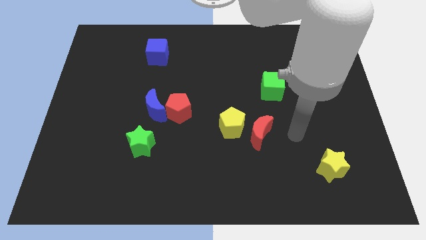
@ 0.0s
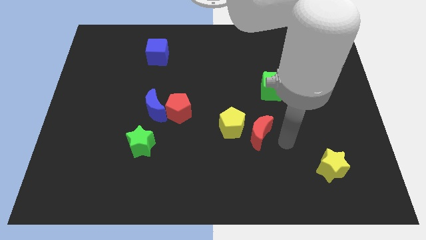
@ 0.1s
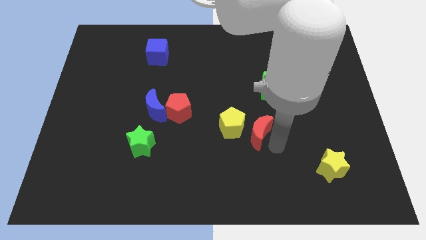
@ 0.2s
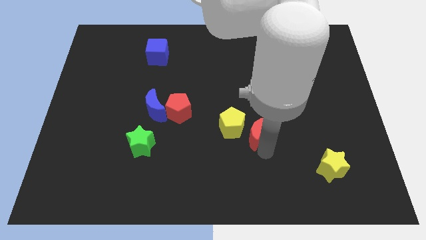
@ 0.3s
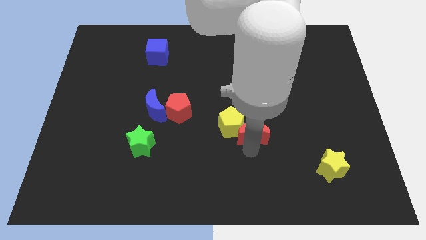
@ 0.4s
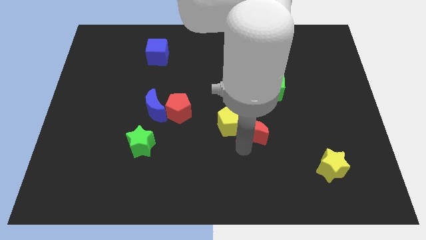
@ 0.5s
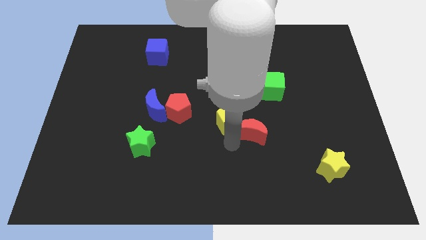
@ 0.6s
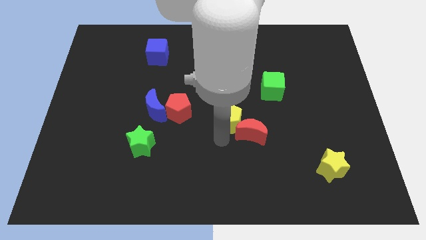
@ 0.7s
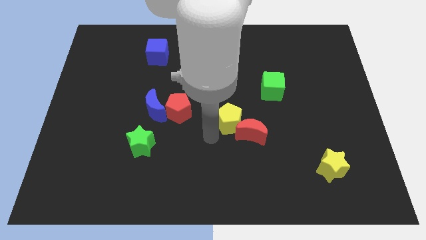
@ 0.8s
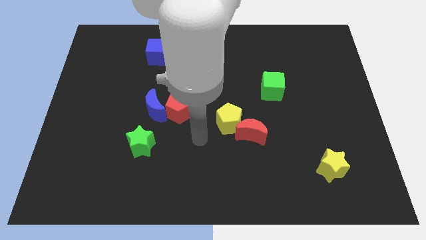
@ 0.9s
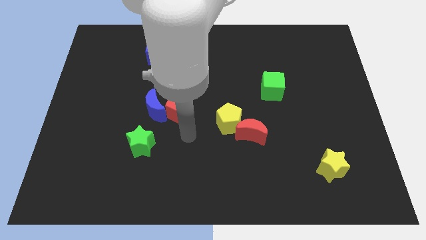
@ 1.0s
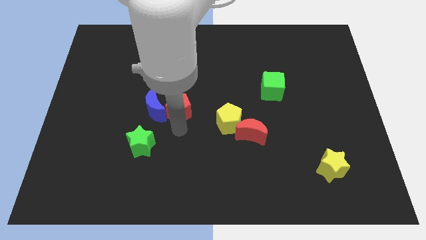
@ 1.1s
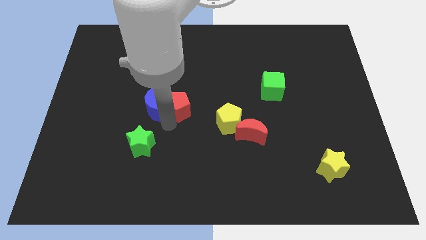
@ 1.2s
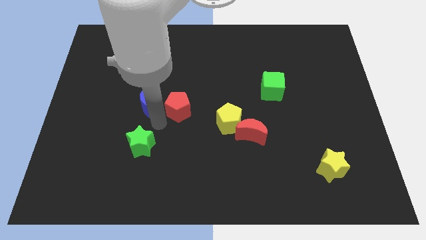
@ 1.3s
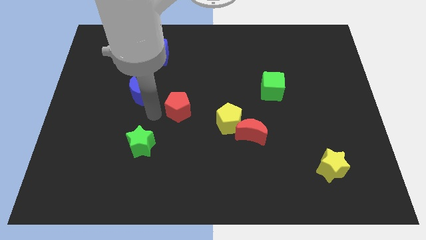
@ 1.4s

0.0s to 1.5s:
separate the red pentagon from the blue moon

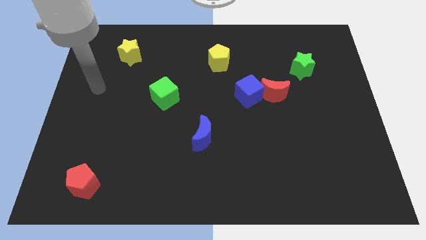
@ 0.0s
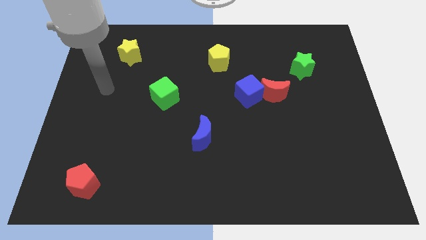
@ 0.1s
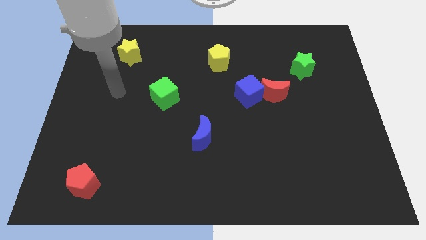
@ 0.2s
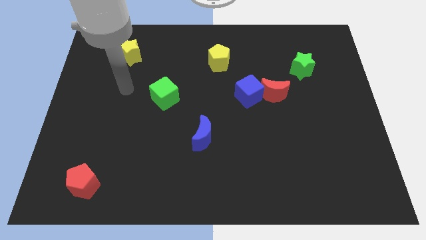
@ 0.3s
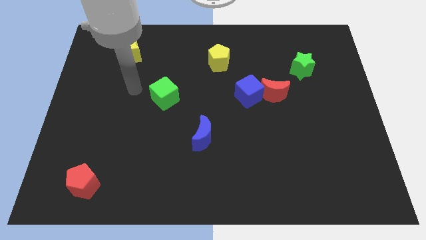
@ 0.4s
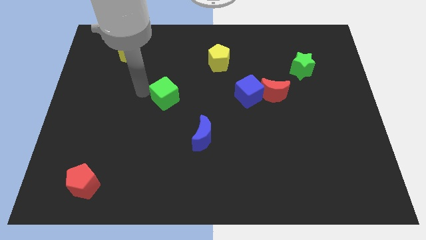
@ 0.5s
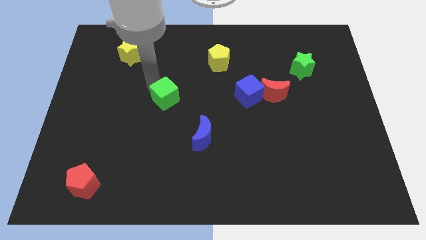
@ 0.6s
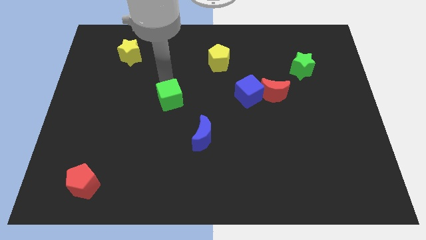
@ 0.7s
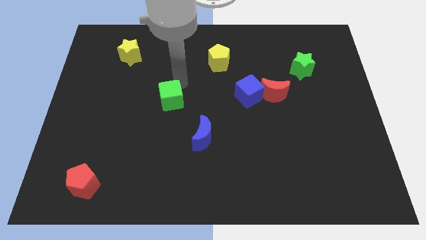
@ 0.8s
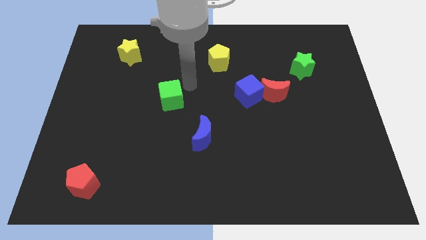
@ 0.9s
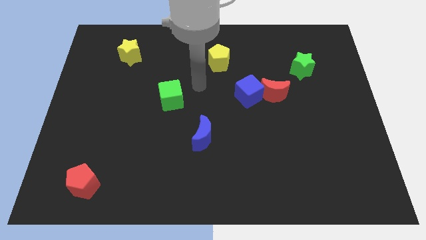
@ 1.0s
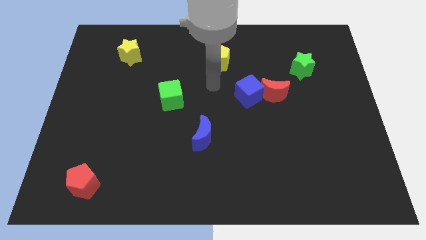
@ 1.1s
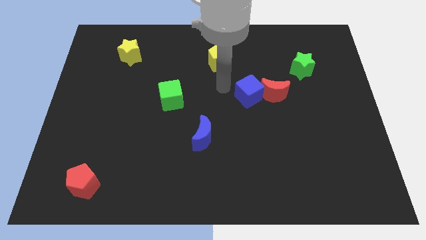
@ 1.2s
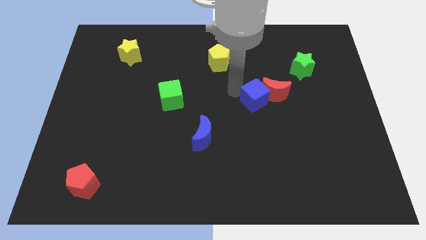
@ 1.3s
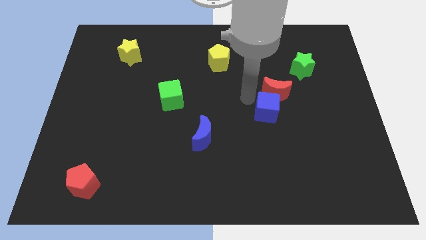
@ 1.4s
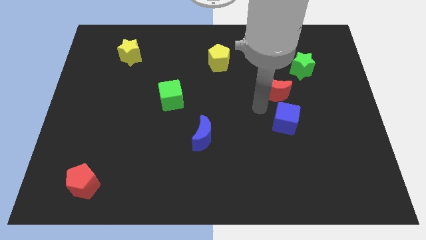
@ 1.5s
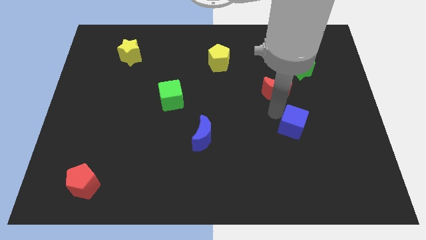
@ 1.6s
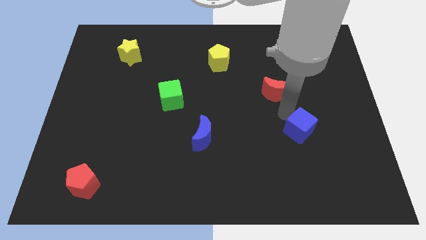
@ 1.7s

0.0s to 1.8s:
separate the red moon from the blue cube

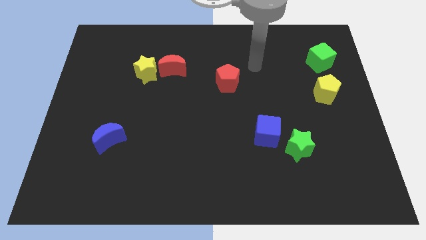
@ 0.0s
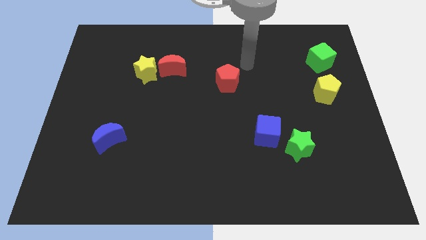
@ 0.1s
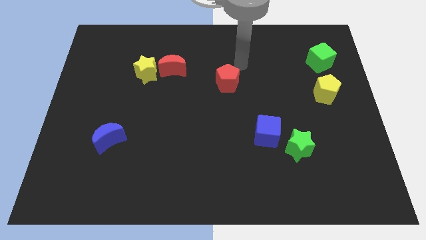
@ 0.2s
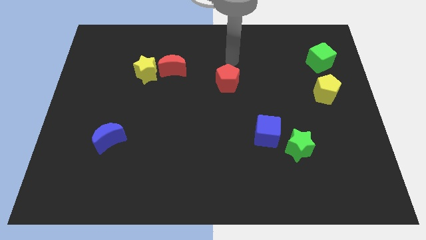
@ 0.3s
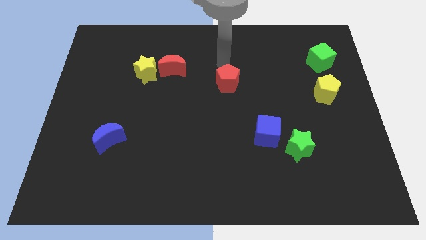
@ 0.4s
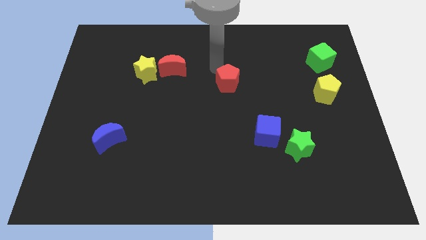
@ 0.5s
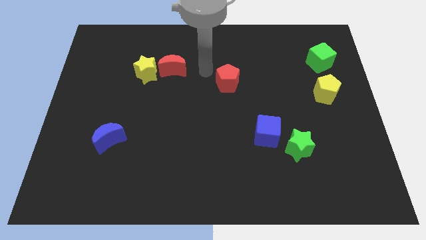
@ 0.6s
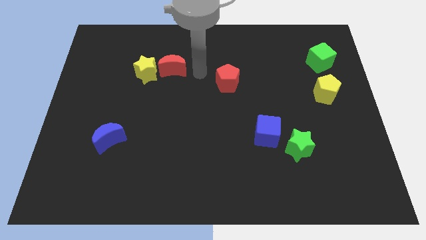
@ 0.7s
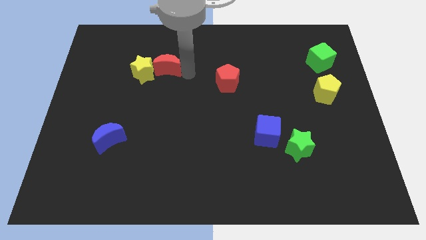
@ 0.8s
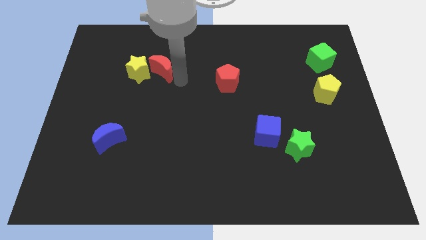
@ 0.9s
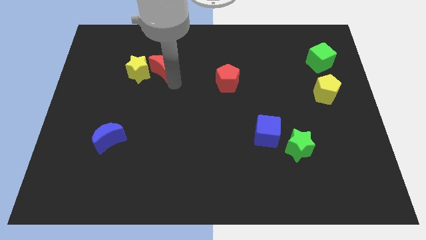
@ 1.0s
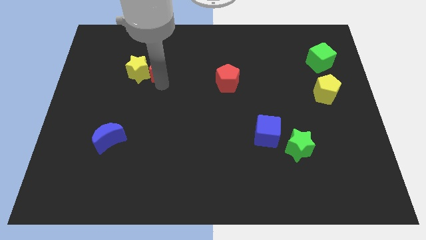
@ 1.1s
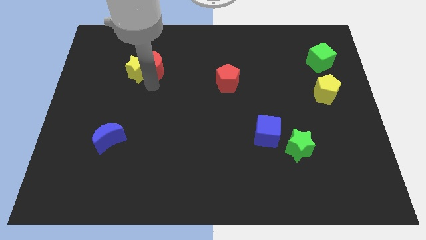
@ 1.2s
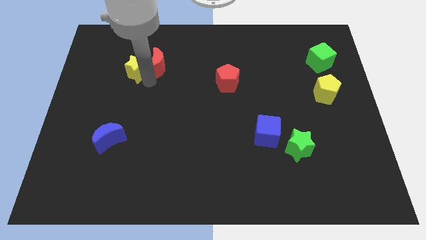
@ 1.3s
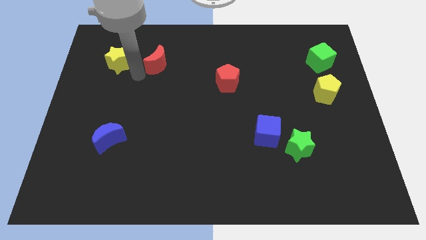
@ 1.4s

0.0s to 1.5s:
move the red moon away from the yellow star

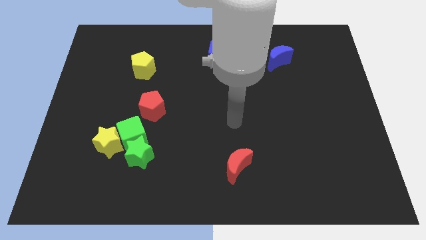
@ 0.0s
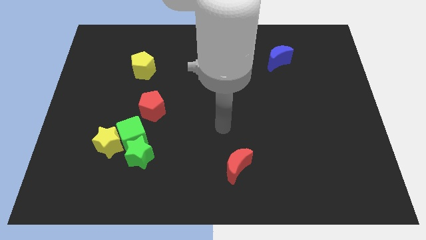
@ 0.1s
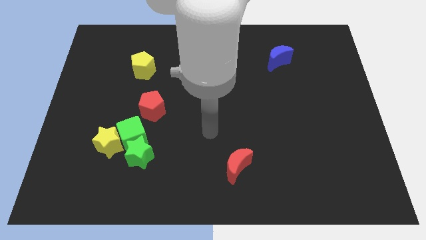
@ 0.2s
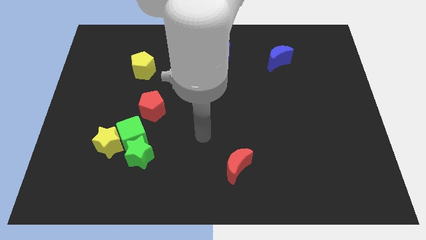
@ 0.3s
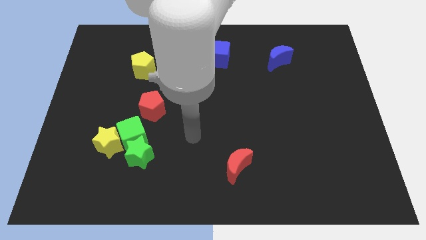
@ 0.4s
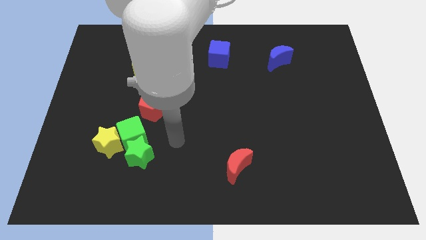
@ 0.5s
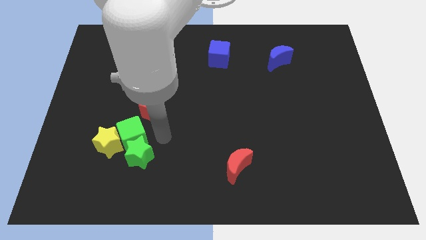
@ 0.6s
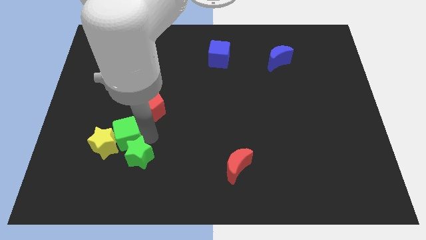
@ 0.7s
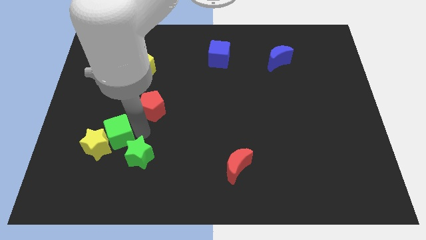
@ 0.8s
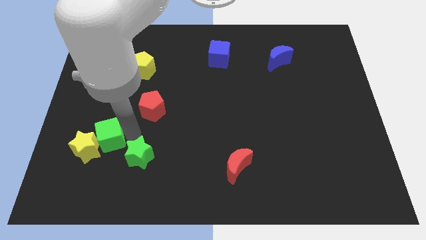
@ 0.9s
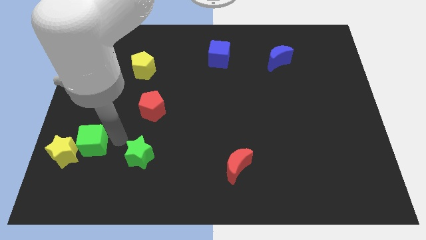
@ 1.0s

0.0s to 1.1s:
separate the green star from the green cube and yellow star

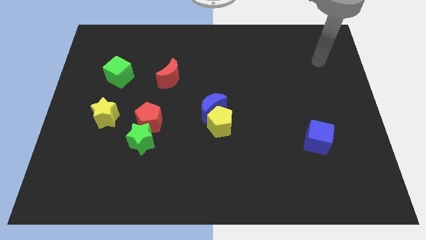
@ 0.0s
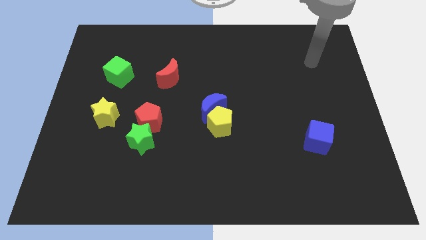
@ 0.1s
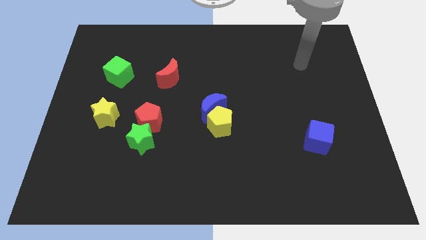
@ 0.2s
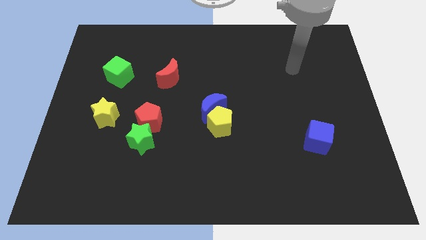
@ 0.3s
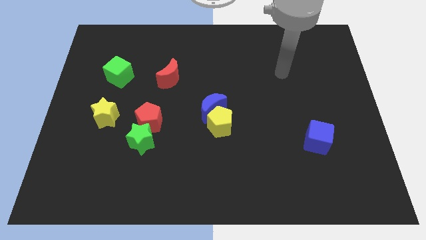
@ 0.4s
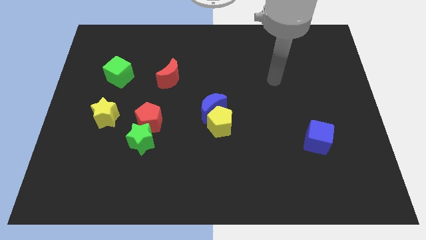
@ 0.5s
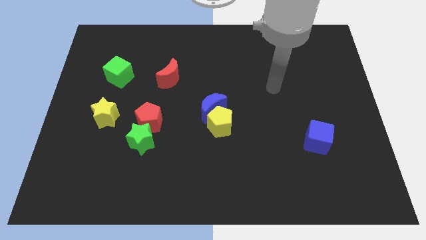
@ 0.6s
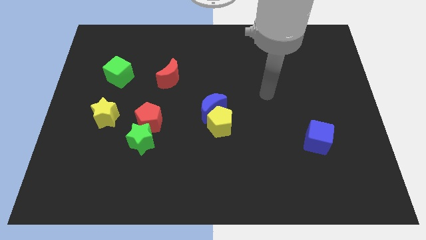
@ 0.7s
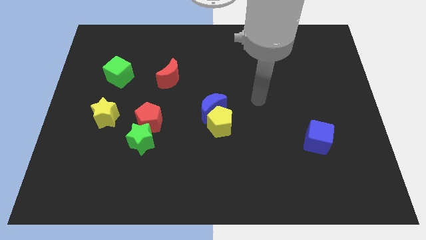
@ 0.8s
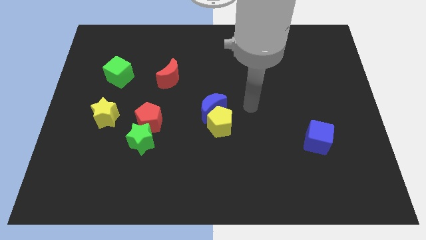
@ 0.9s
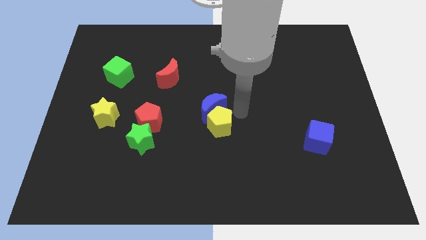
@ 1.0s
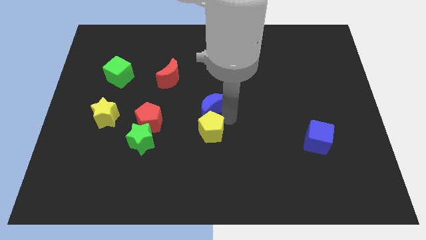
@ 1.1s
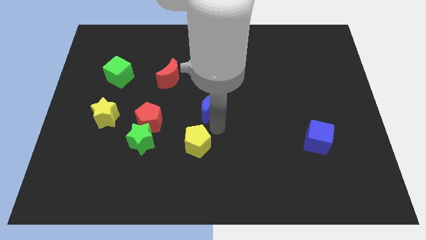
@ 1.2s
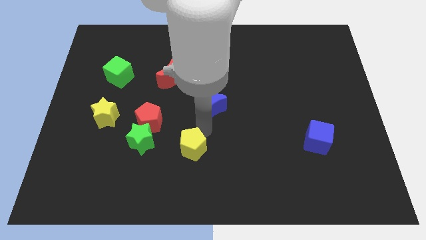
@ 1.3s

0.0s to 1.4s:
separate the blue moon from the yellow pentagon

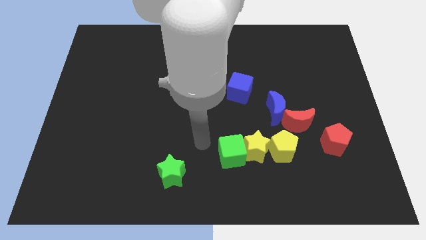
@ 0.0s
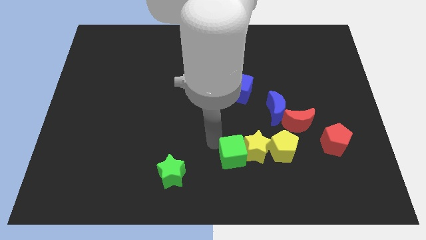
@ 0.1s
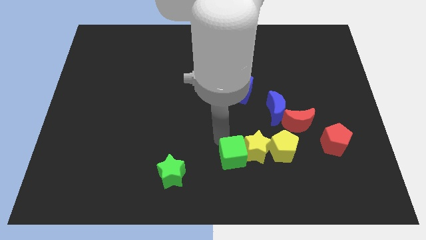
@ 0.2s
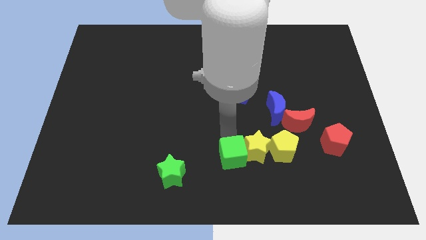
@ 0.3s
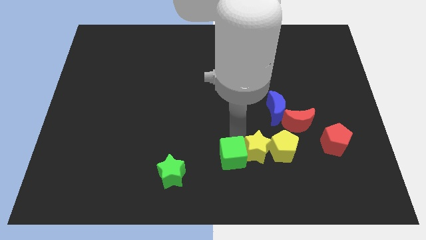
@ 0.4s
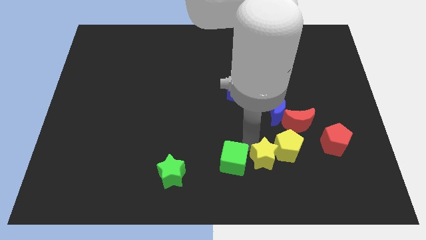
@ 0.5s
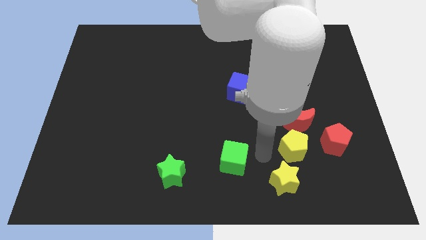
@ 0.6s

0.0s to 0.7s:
move the green cube away from the yellow star

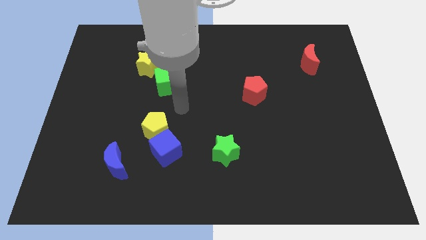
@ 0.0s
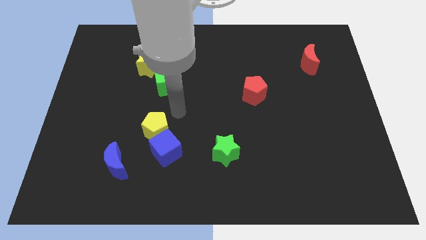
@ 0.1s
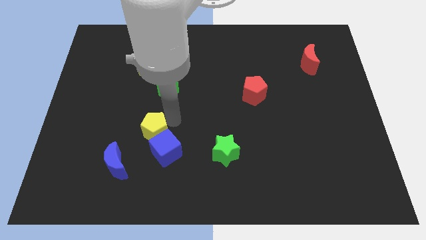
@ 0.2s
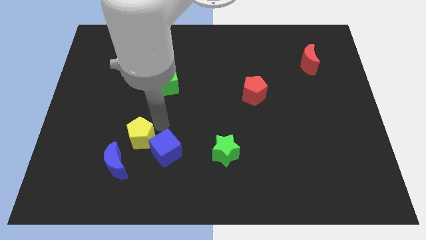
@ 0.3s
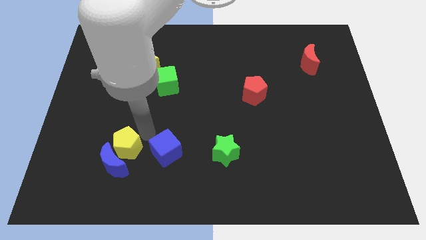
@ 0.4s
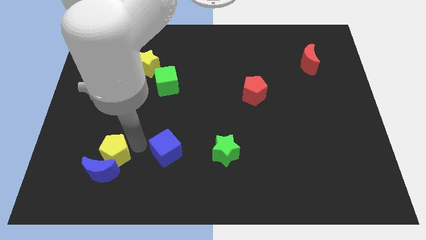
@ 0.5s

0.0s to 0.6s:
move the blue cube away from the yellow pentagon

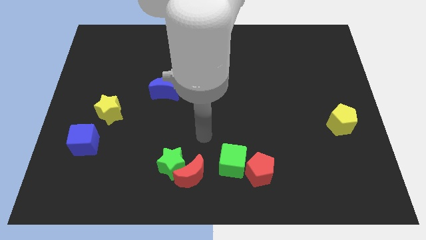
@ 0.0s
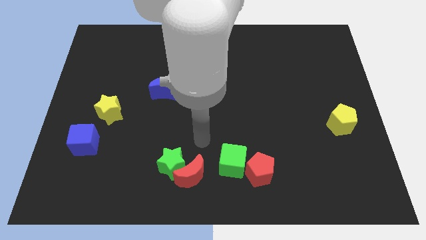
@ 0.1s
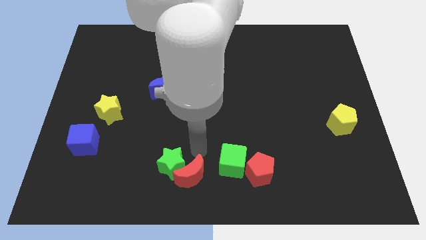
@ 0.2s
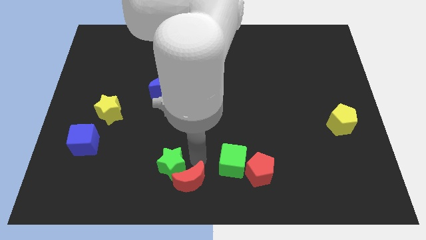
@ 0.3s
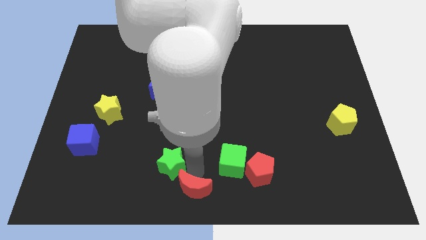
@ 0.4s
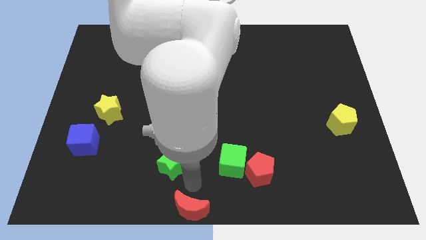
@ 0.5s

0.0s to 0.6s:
separate the green star from the red moon
